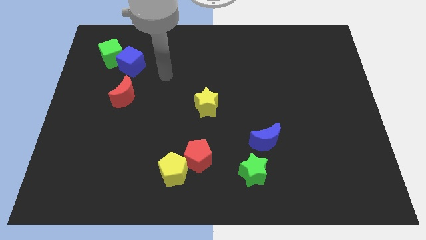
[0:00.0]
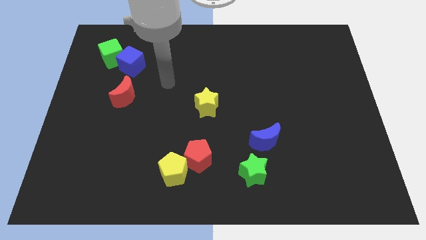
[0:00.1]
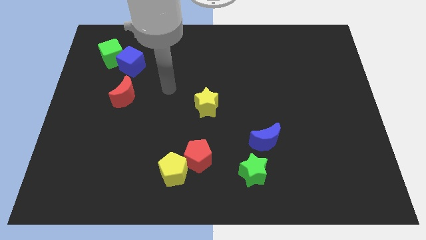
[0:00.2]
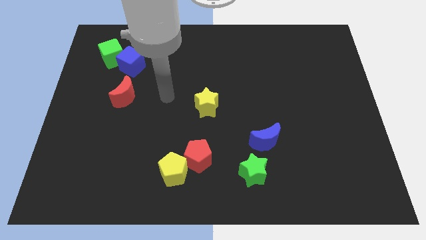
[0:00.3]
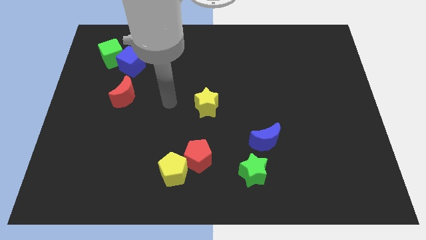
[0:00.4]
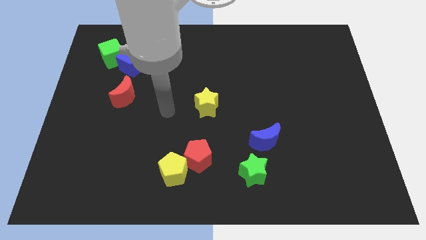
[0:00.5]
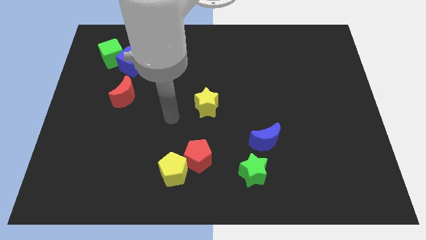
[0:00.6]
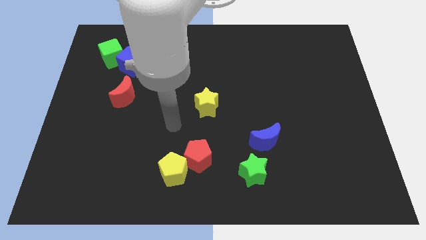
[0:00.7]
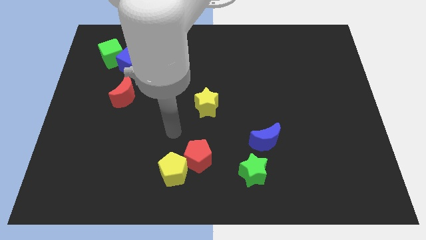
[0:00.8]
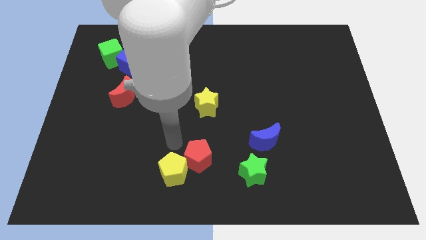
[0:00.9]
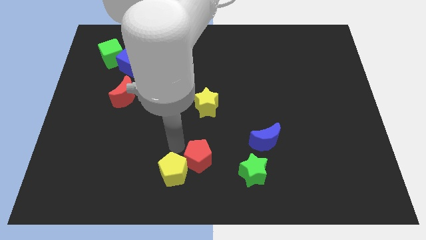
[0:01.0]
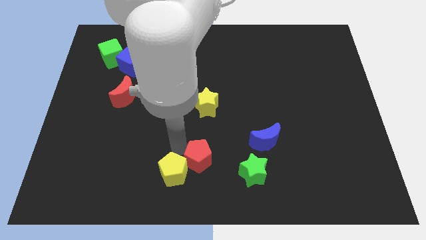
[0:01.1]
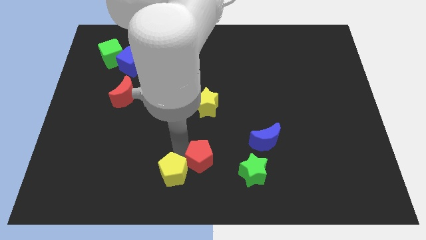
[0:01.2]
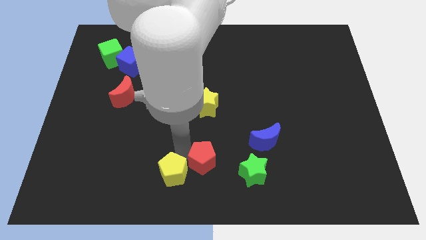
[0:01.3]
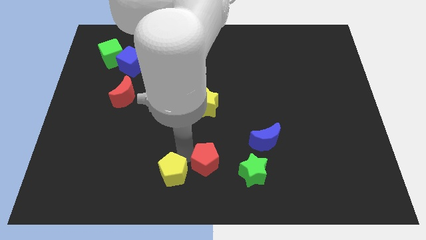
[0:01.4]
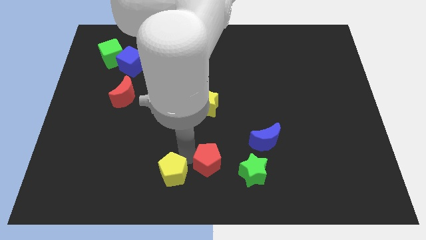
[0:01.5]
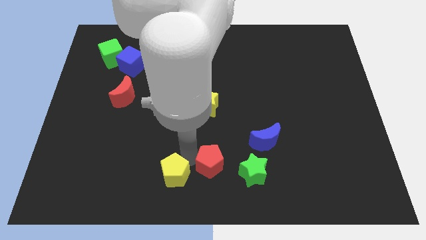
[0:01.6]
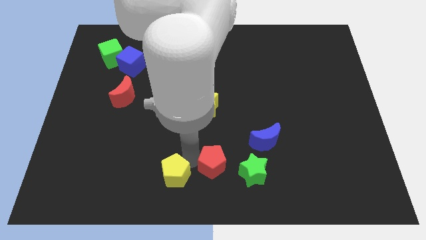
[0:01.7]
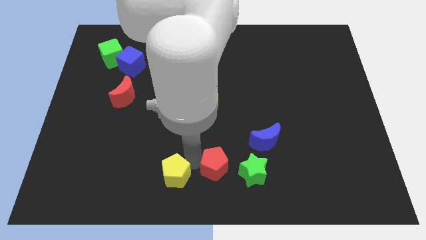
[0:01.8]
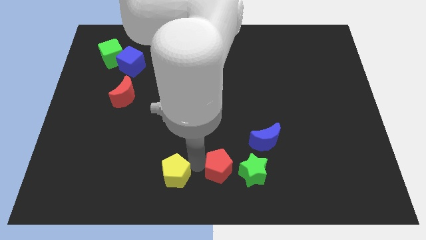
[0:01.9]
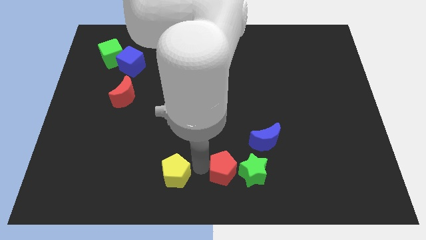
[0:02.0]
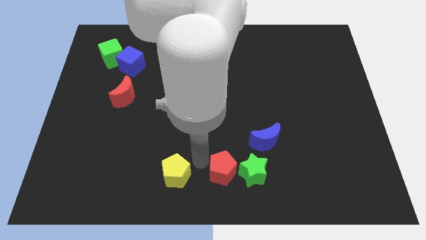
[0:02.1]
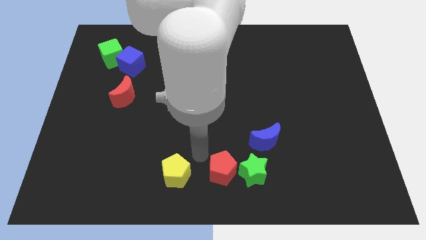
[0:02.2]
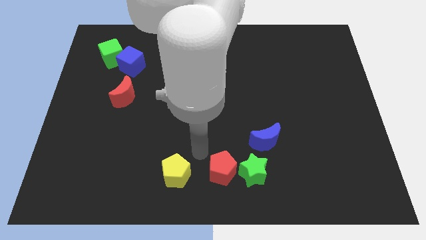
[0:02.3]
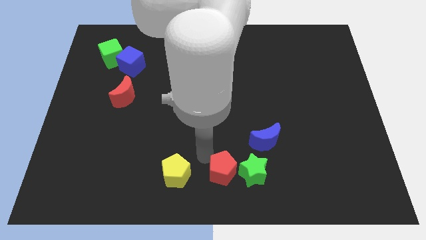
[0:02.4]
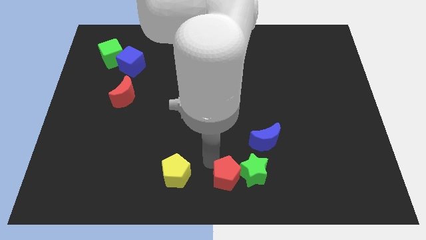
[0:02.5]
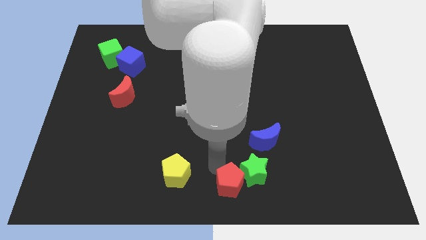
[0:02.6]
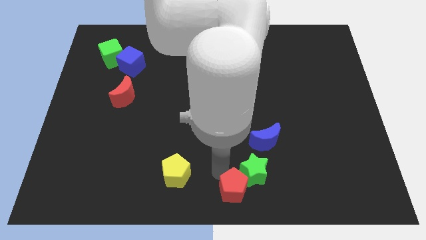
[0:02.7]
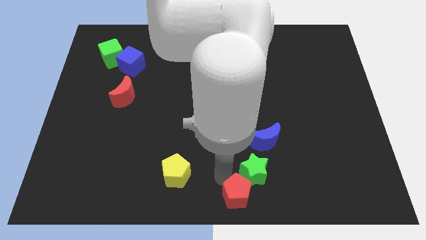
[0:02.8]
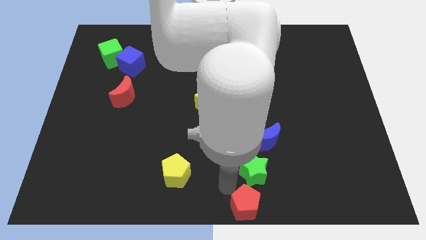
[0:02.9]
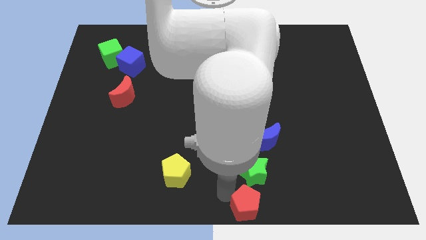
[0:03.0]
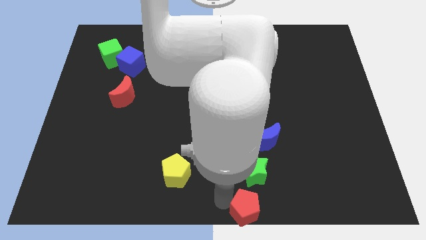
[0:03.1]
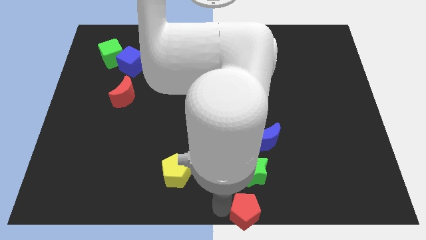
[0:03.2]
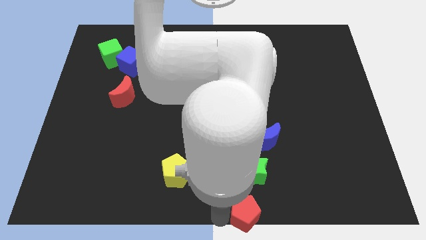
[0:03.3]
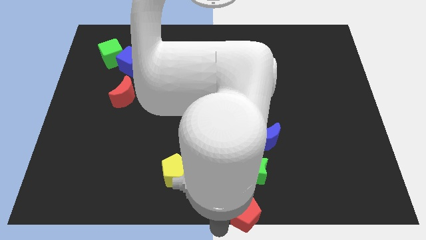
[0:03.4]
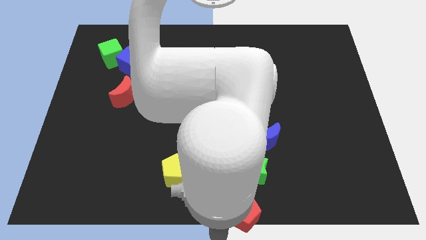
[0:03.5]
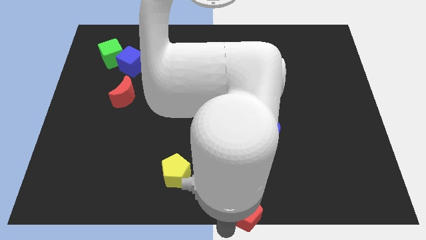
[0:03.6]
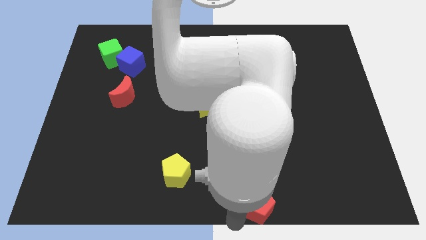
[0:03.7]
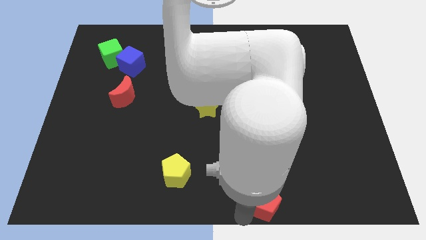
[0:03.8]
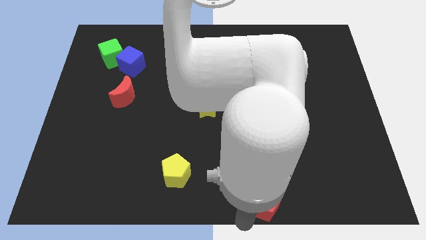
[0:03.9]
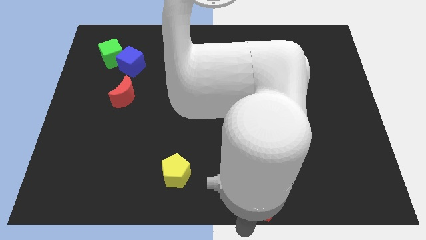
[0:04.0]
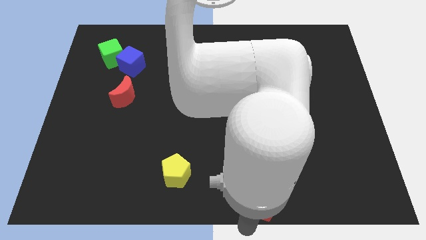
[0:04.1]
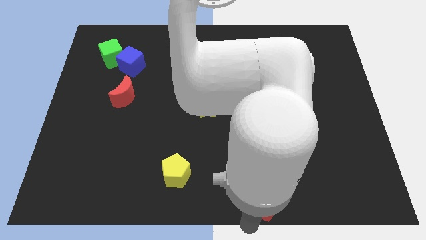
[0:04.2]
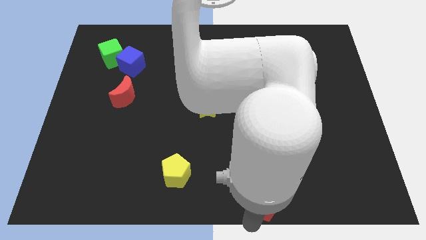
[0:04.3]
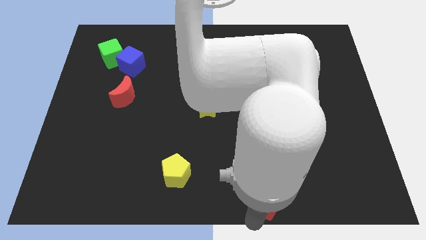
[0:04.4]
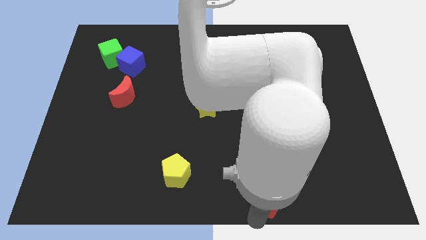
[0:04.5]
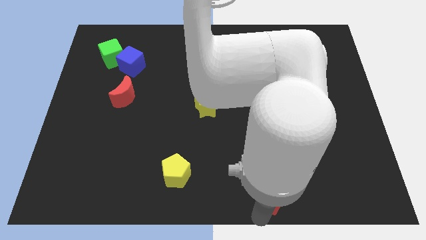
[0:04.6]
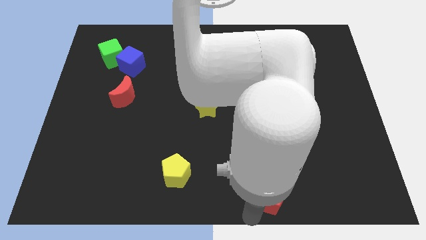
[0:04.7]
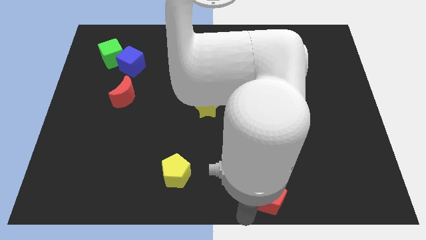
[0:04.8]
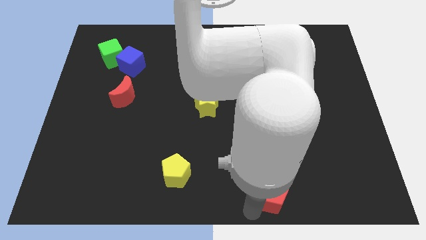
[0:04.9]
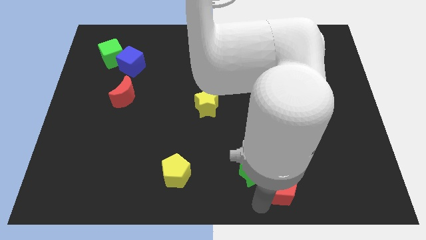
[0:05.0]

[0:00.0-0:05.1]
put the red pentagon just right of the green star

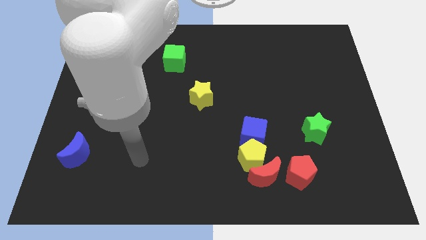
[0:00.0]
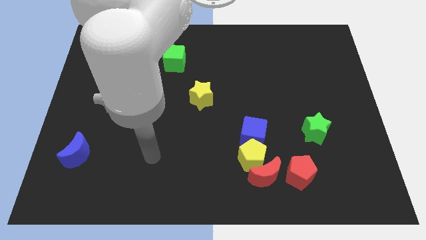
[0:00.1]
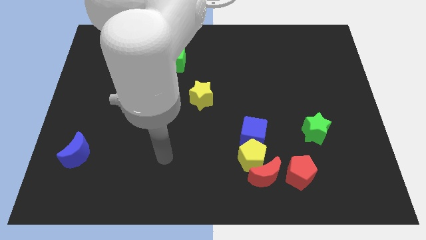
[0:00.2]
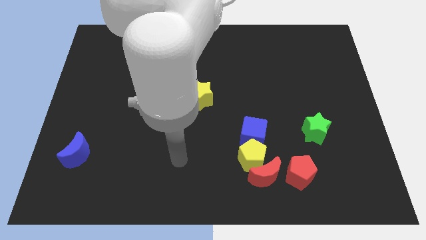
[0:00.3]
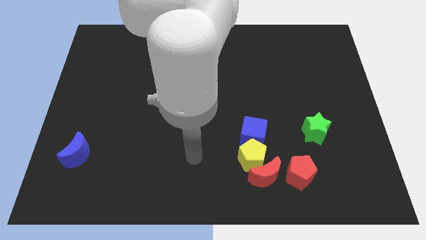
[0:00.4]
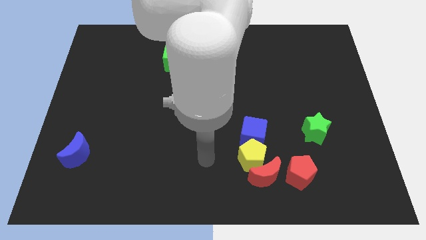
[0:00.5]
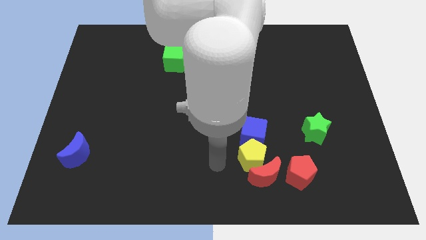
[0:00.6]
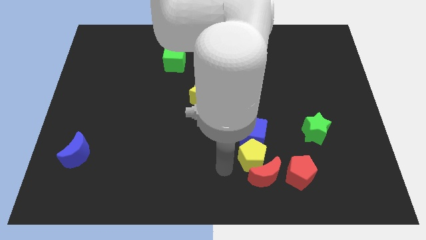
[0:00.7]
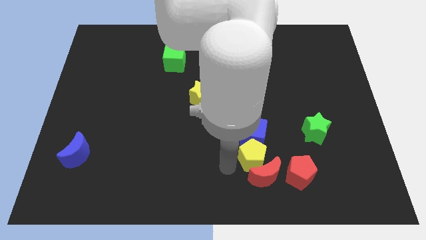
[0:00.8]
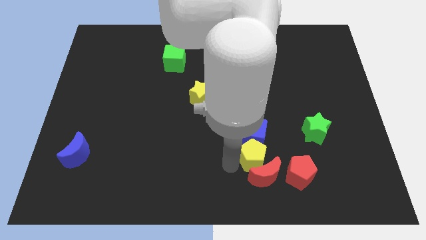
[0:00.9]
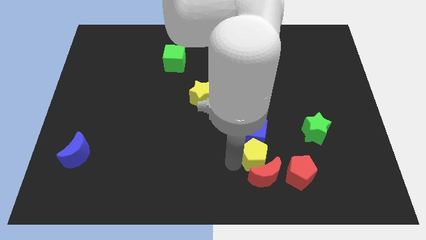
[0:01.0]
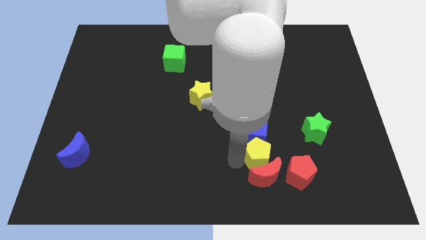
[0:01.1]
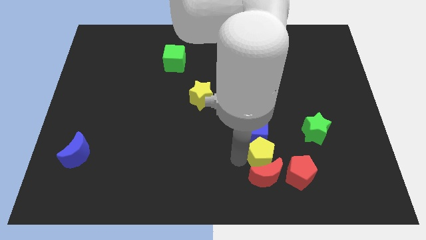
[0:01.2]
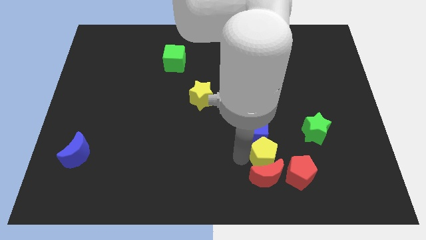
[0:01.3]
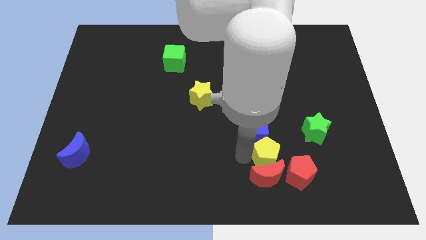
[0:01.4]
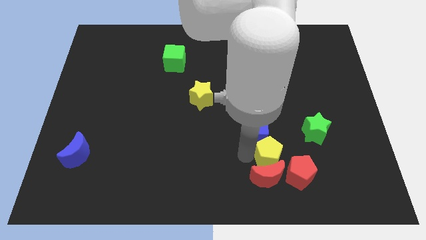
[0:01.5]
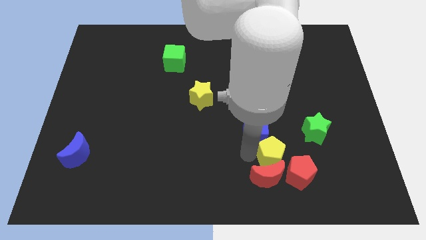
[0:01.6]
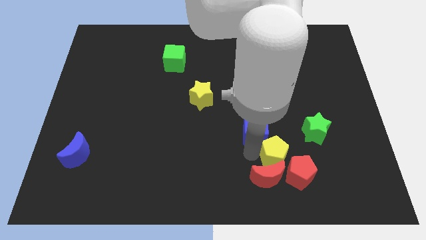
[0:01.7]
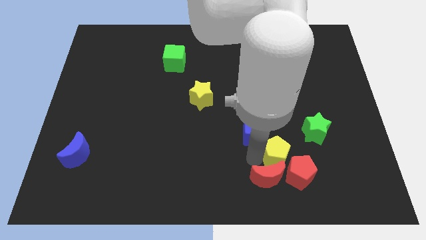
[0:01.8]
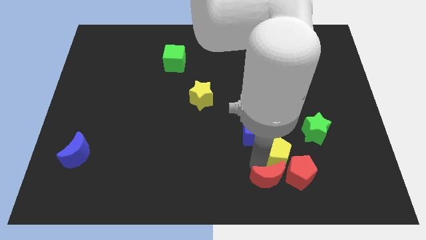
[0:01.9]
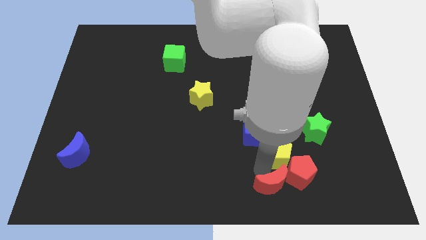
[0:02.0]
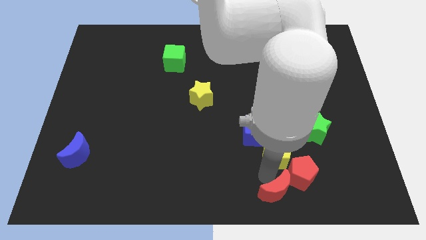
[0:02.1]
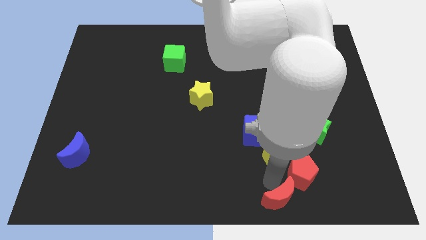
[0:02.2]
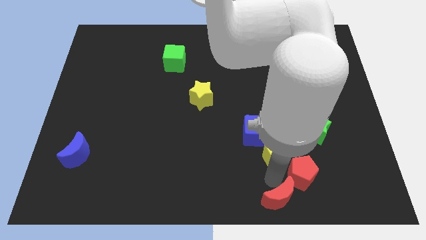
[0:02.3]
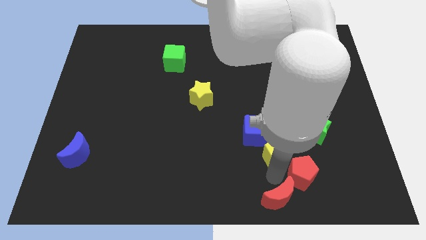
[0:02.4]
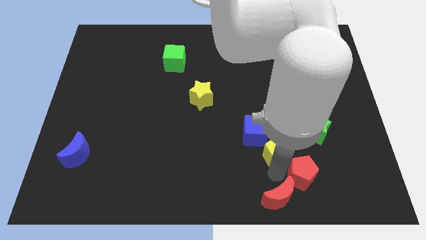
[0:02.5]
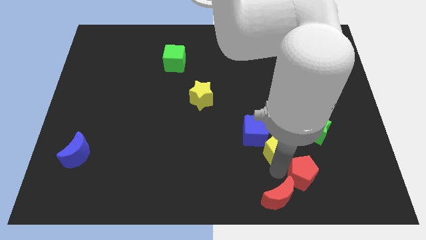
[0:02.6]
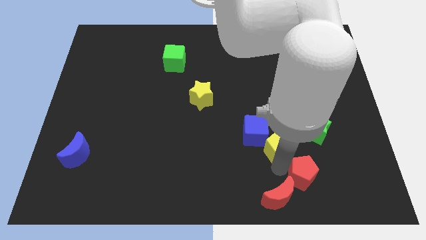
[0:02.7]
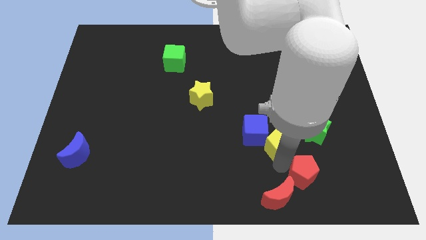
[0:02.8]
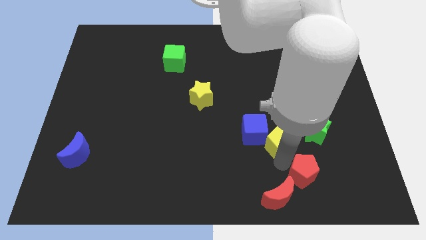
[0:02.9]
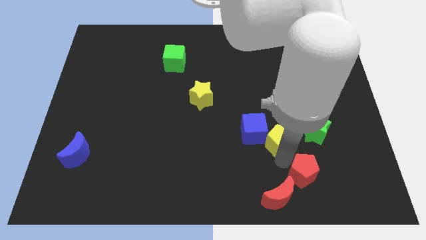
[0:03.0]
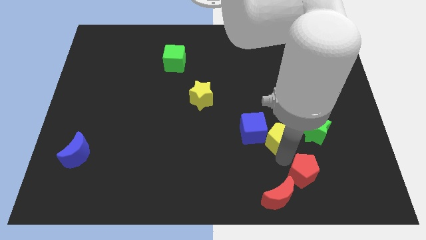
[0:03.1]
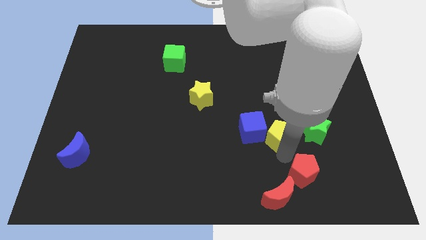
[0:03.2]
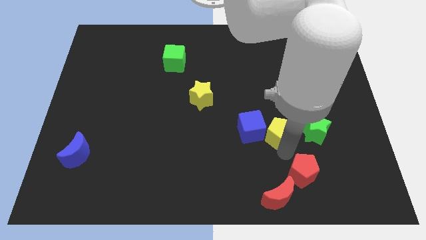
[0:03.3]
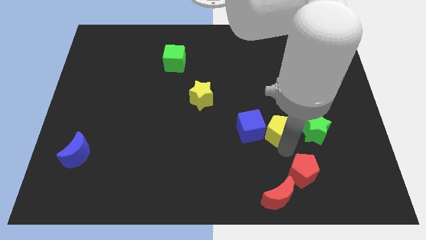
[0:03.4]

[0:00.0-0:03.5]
move the yellow pentagon to the top right side of the blue cube
